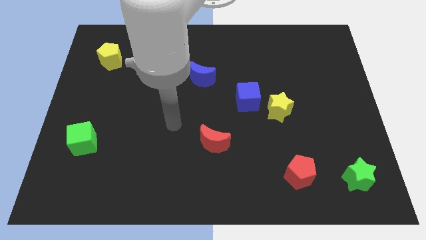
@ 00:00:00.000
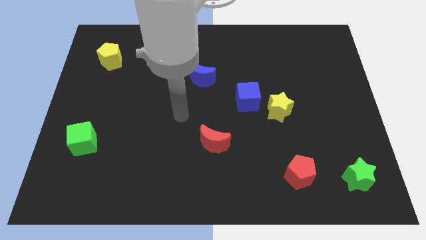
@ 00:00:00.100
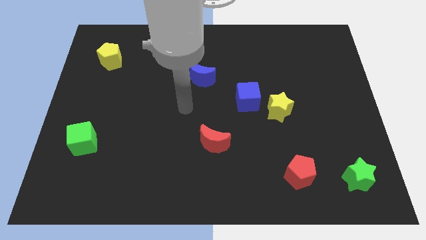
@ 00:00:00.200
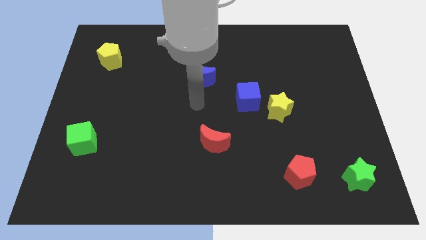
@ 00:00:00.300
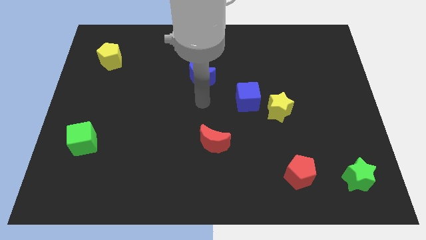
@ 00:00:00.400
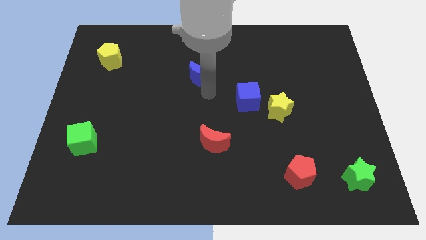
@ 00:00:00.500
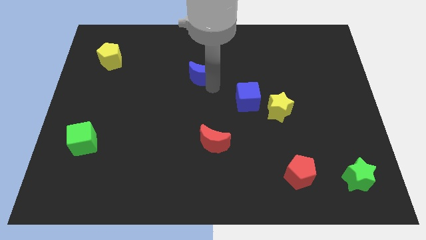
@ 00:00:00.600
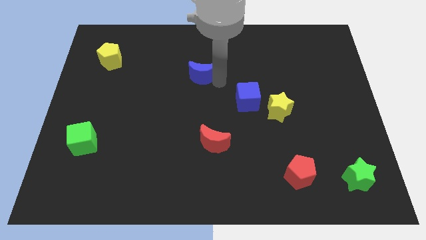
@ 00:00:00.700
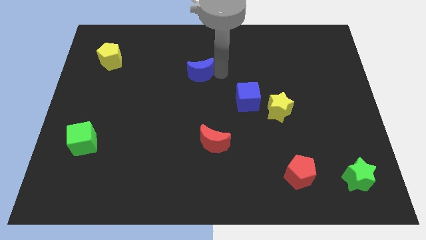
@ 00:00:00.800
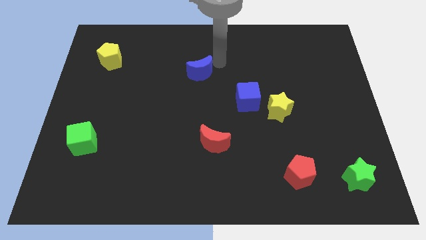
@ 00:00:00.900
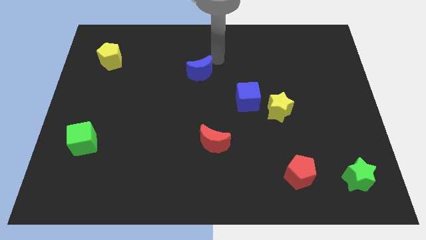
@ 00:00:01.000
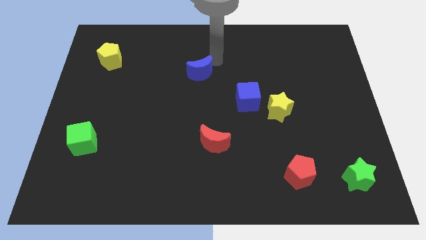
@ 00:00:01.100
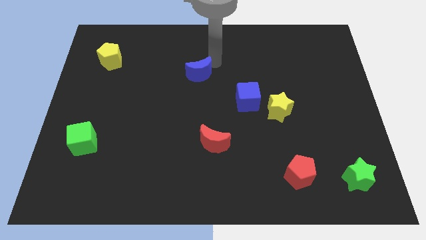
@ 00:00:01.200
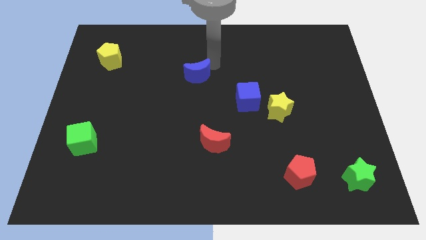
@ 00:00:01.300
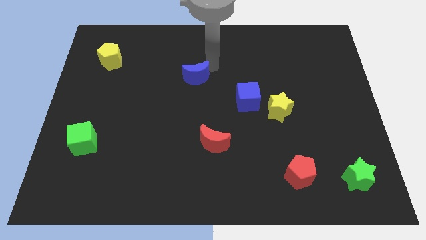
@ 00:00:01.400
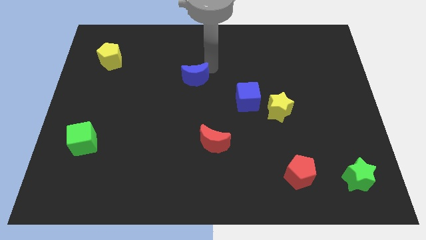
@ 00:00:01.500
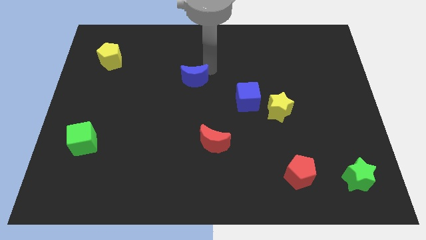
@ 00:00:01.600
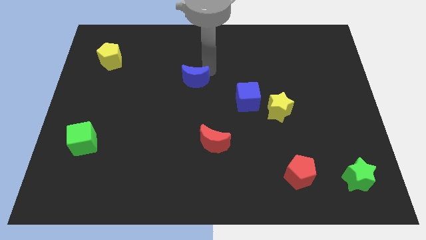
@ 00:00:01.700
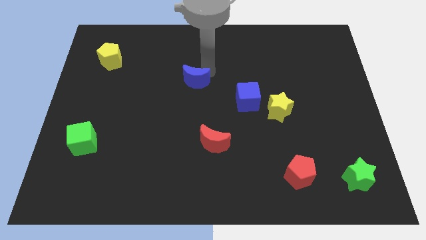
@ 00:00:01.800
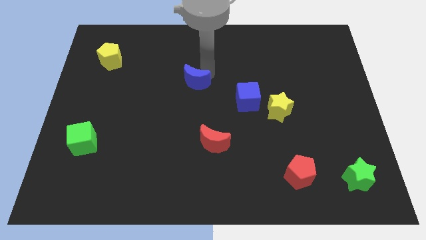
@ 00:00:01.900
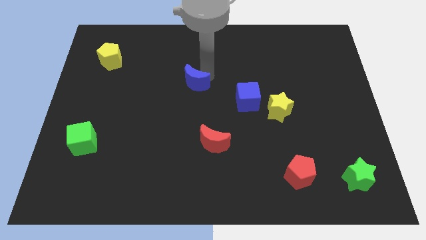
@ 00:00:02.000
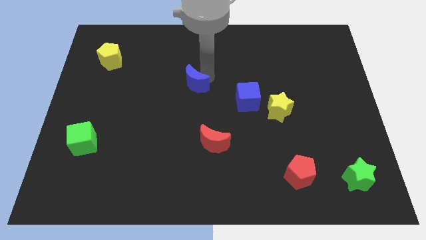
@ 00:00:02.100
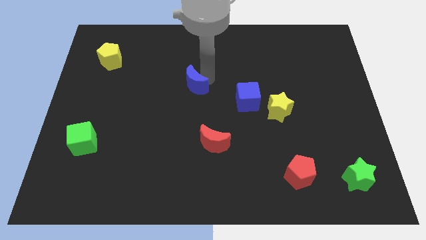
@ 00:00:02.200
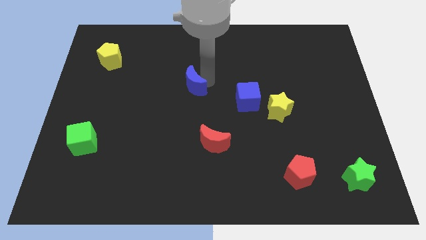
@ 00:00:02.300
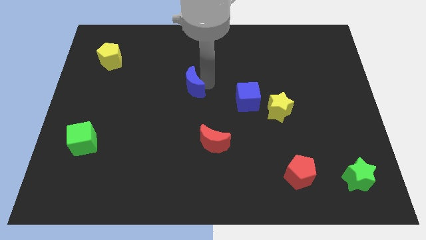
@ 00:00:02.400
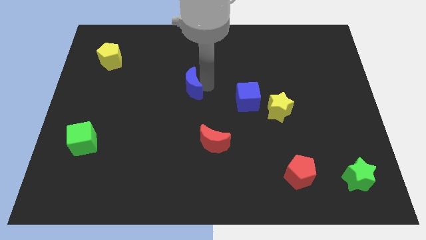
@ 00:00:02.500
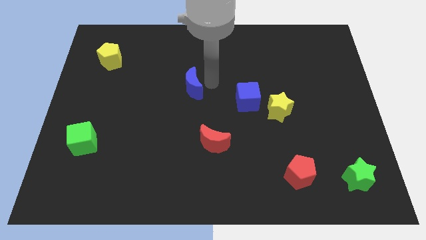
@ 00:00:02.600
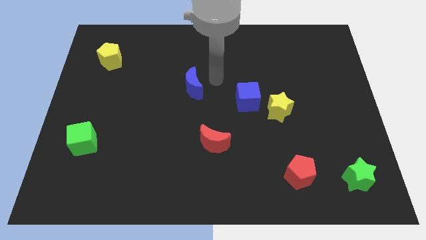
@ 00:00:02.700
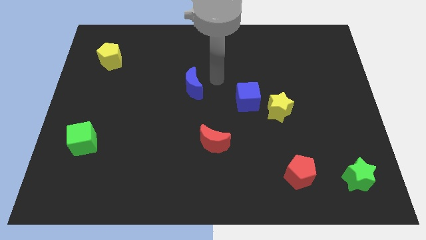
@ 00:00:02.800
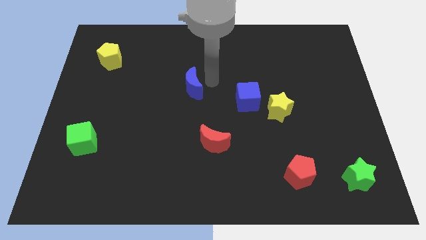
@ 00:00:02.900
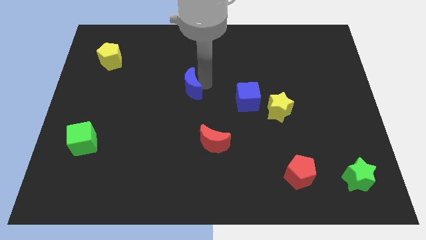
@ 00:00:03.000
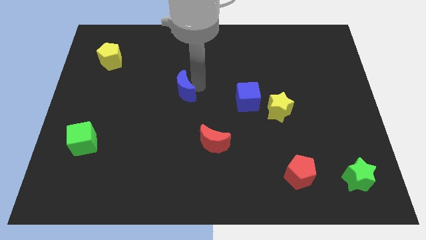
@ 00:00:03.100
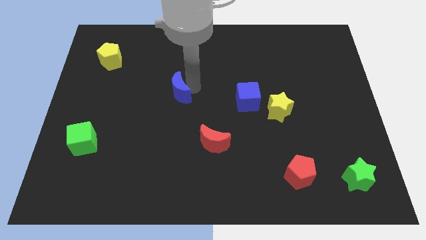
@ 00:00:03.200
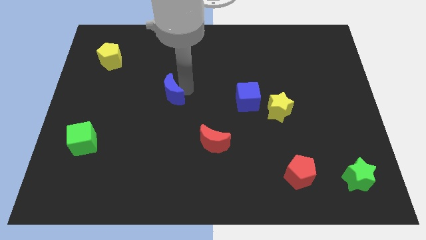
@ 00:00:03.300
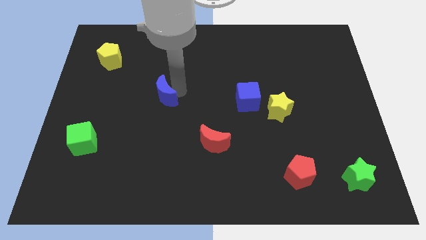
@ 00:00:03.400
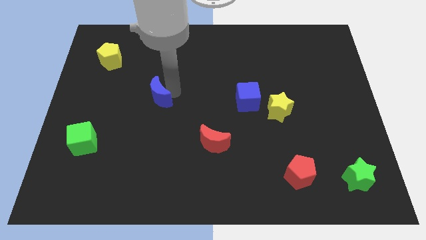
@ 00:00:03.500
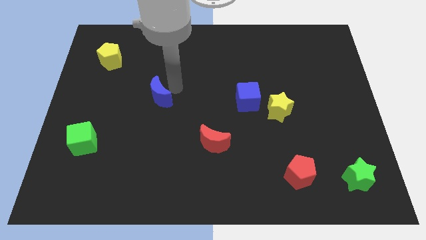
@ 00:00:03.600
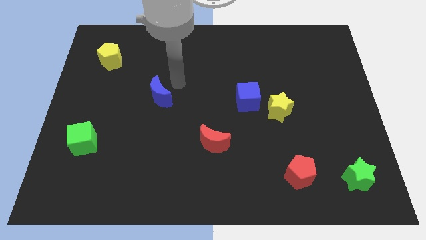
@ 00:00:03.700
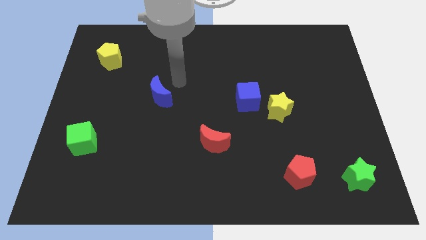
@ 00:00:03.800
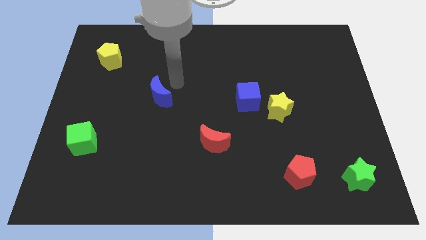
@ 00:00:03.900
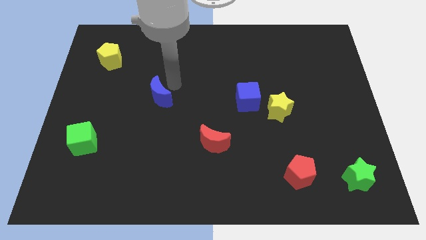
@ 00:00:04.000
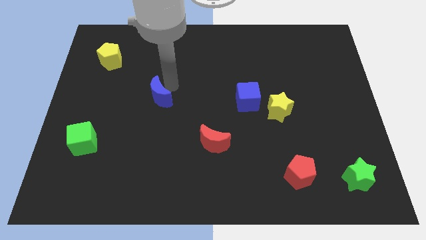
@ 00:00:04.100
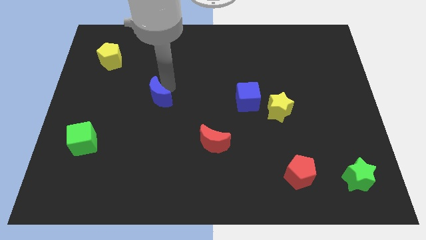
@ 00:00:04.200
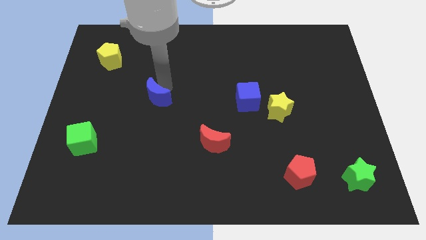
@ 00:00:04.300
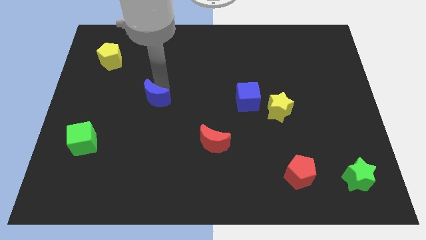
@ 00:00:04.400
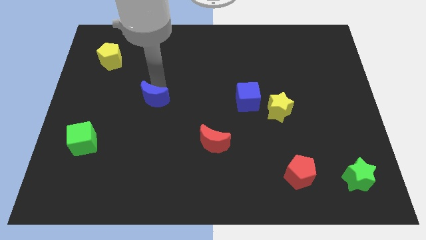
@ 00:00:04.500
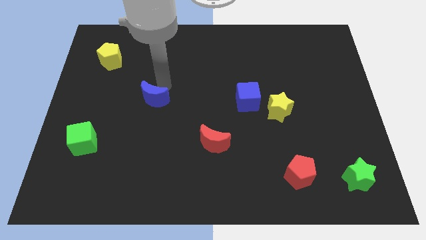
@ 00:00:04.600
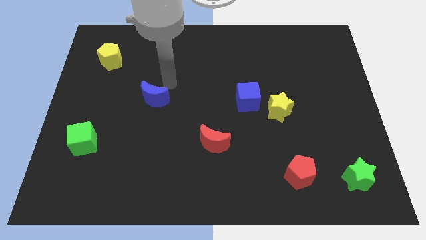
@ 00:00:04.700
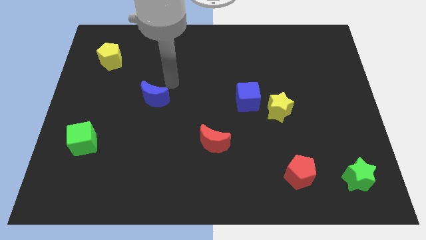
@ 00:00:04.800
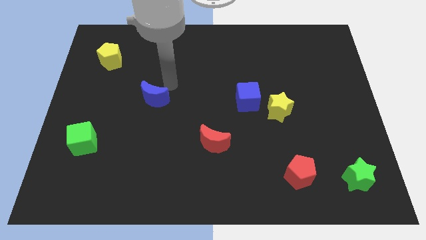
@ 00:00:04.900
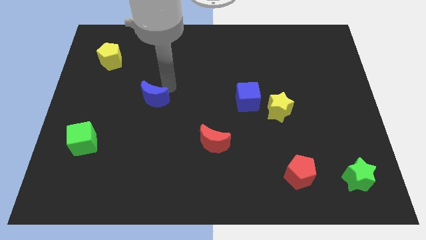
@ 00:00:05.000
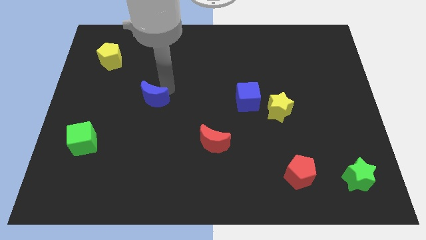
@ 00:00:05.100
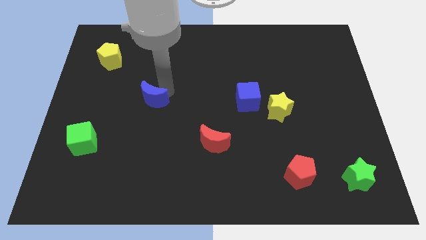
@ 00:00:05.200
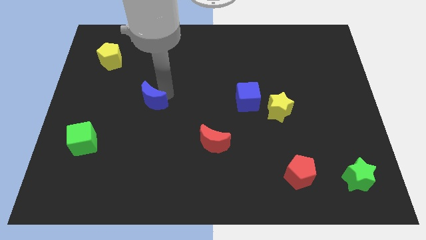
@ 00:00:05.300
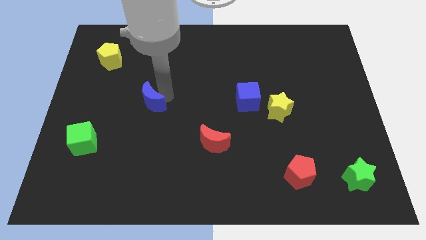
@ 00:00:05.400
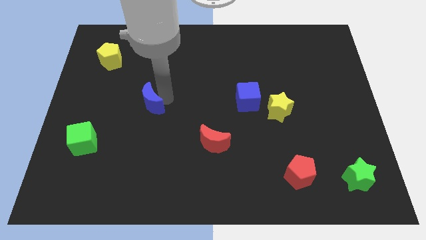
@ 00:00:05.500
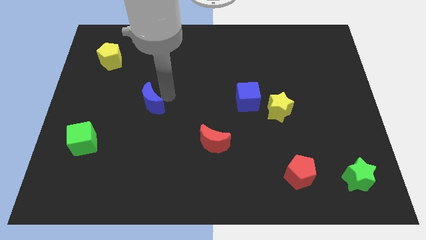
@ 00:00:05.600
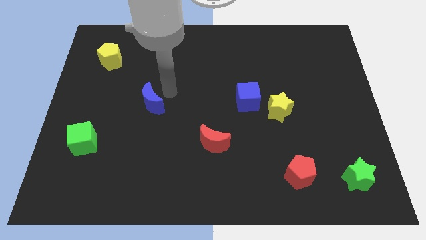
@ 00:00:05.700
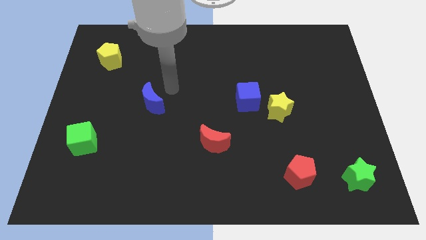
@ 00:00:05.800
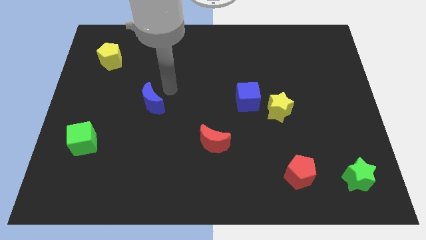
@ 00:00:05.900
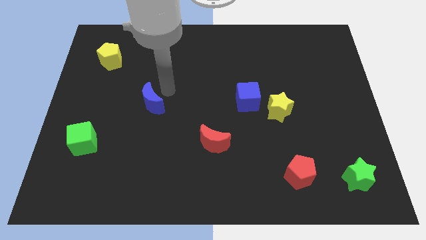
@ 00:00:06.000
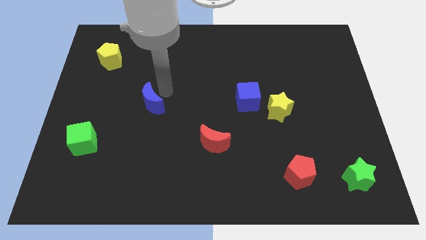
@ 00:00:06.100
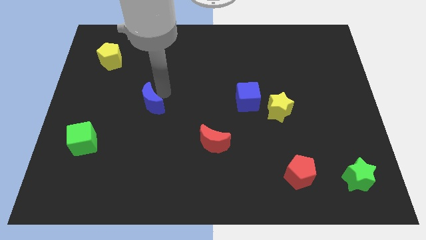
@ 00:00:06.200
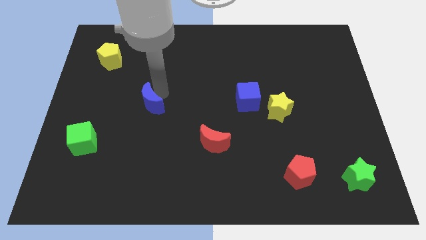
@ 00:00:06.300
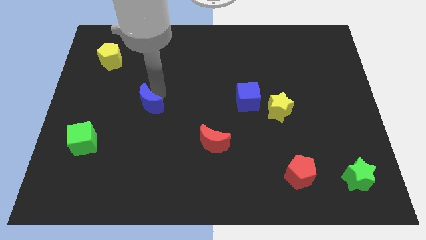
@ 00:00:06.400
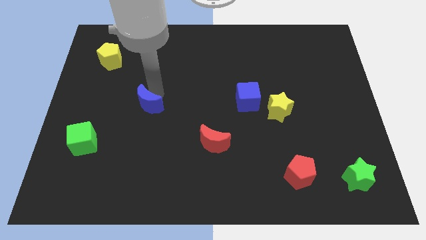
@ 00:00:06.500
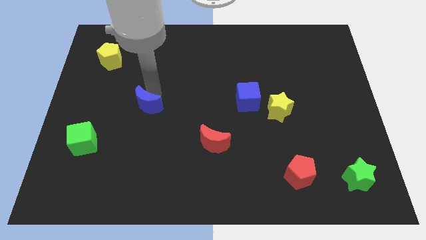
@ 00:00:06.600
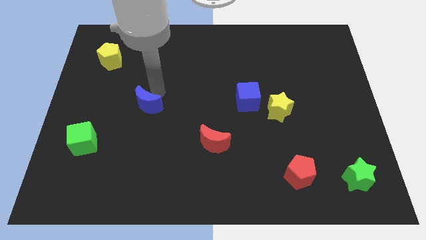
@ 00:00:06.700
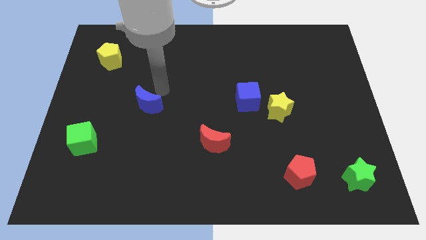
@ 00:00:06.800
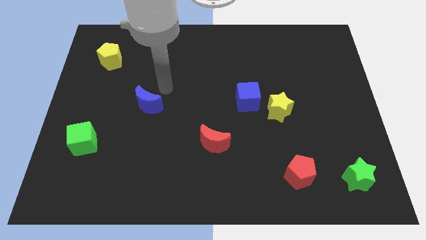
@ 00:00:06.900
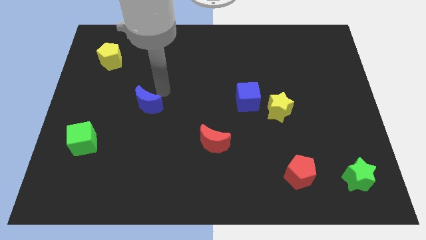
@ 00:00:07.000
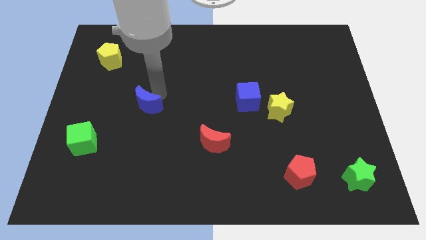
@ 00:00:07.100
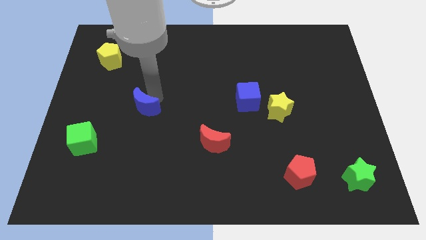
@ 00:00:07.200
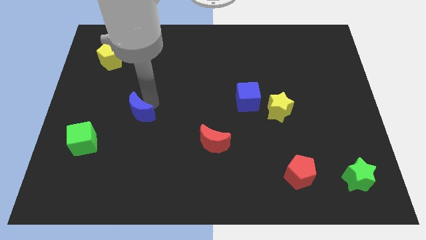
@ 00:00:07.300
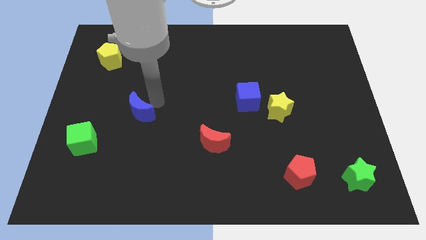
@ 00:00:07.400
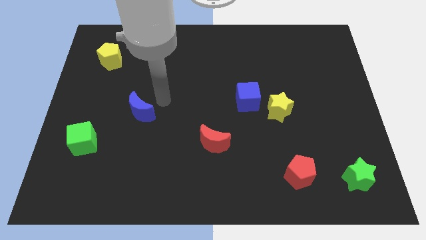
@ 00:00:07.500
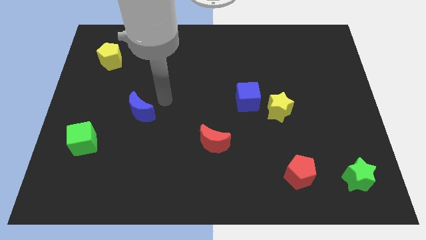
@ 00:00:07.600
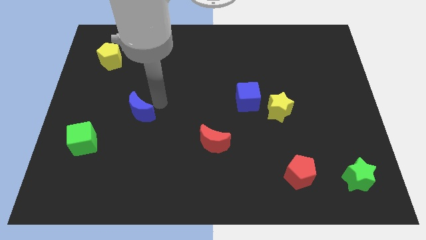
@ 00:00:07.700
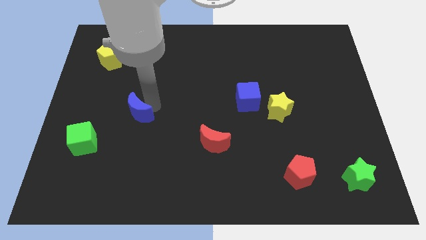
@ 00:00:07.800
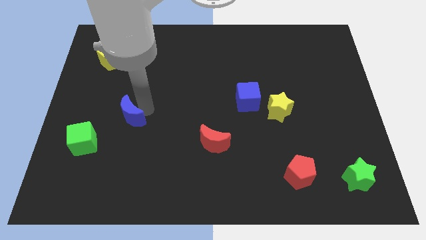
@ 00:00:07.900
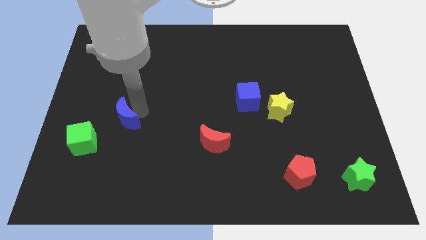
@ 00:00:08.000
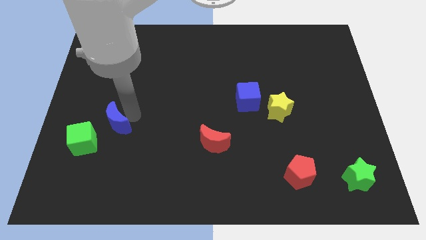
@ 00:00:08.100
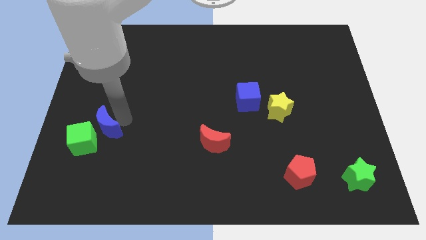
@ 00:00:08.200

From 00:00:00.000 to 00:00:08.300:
push the blue moon next to the green cube
